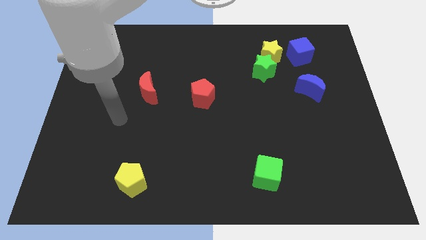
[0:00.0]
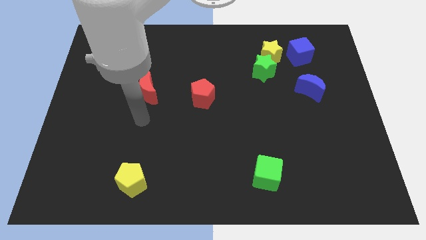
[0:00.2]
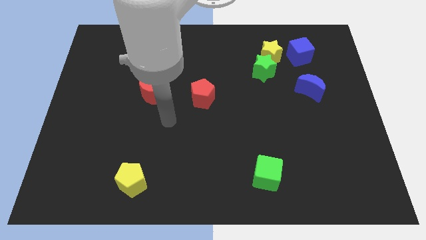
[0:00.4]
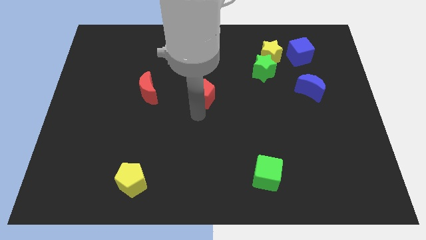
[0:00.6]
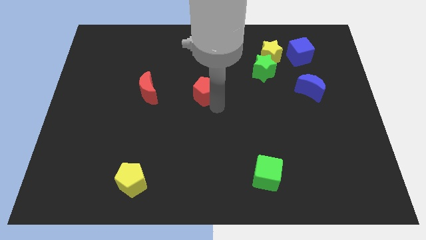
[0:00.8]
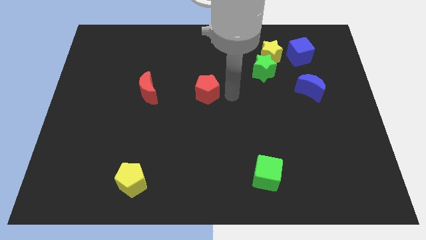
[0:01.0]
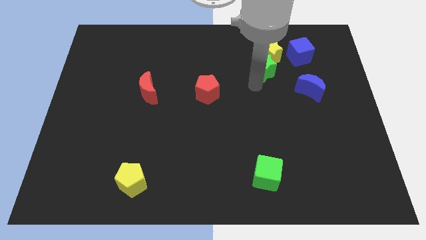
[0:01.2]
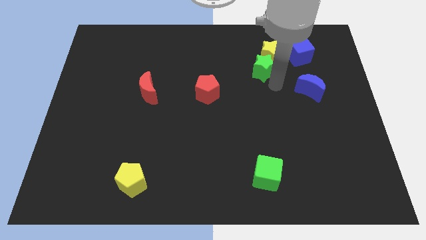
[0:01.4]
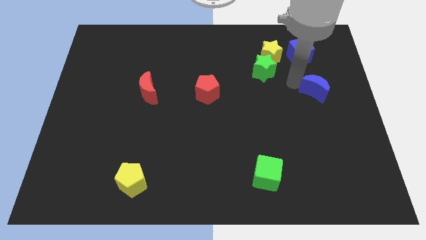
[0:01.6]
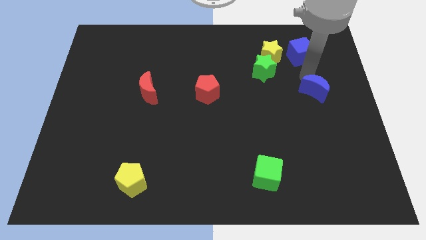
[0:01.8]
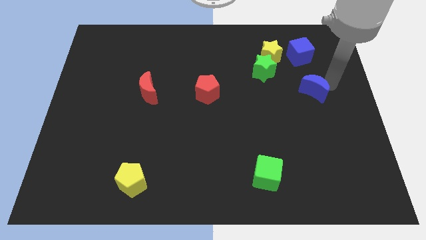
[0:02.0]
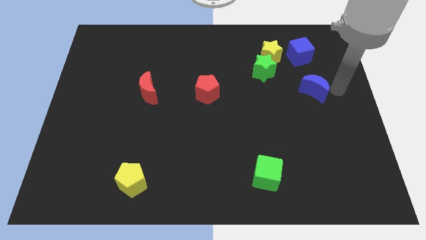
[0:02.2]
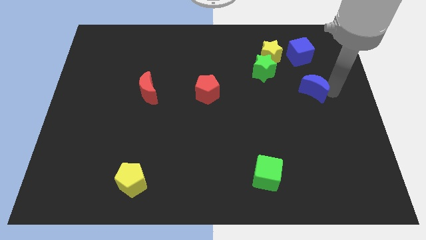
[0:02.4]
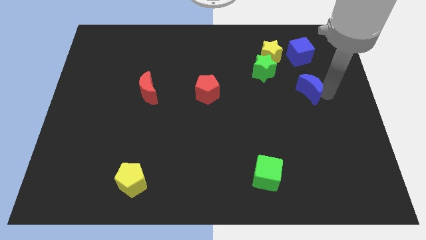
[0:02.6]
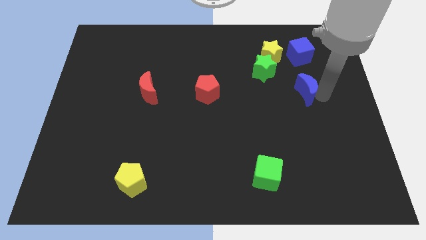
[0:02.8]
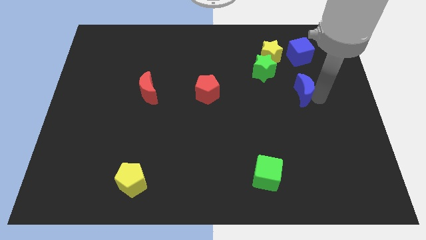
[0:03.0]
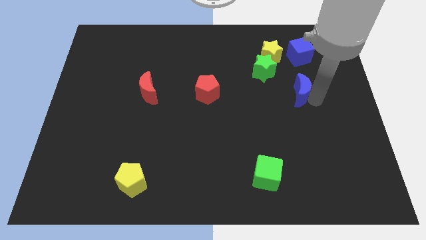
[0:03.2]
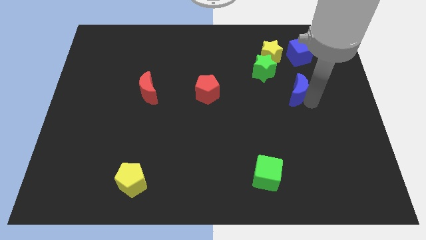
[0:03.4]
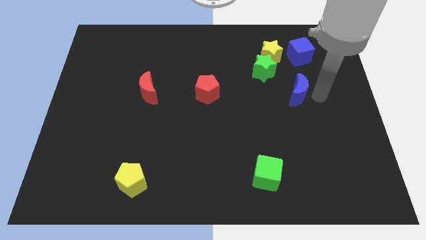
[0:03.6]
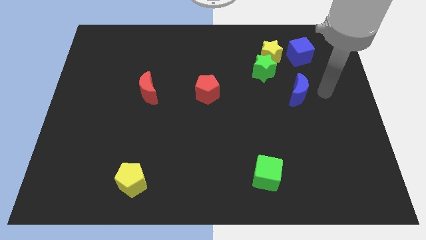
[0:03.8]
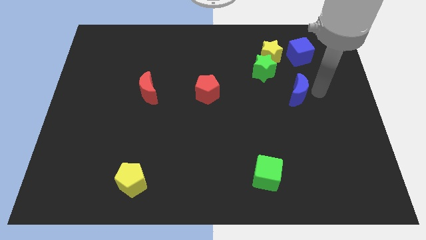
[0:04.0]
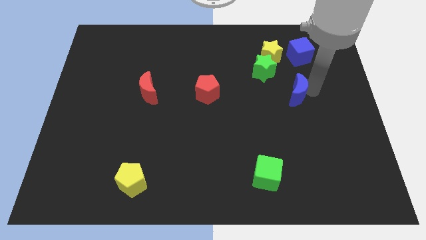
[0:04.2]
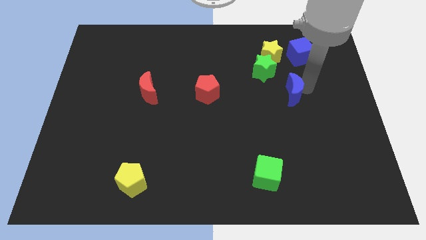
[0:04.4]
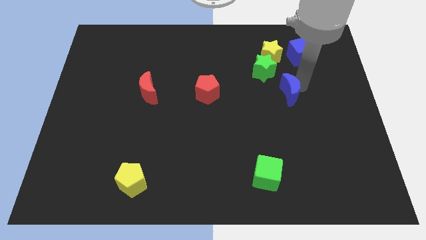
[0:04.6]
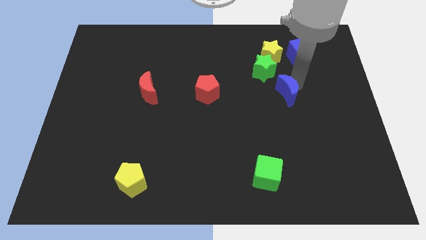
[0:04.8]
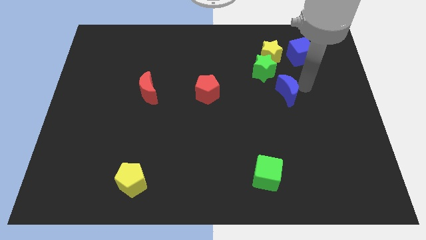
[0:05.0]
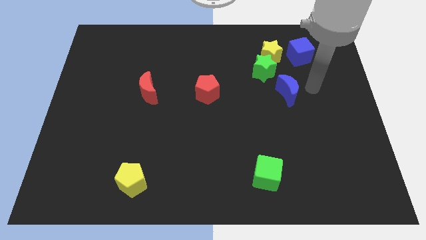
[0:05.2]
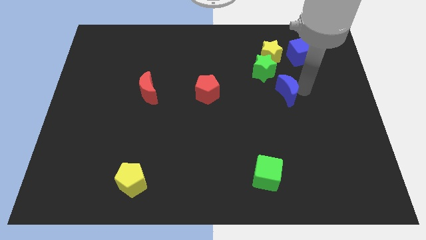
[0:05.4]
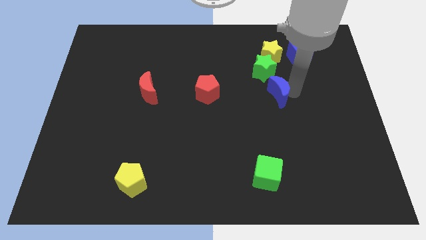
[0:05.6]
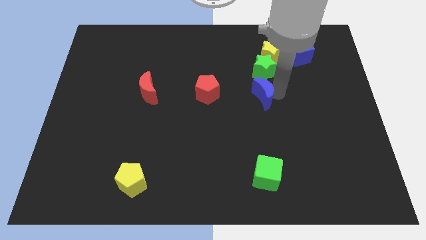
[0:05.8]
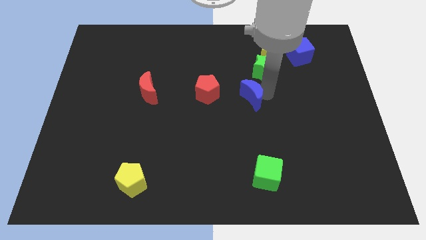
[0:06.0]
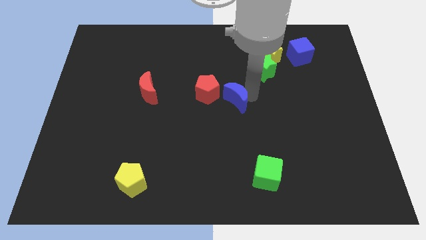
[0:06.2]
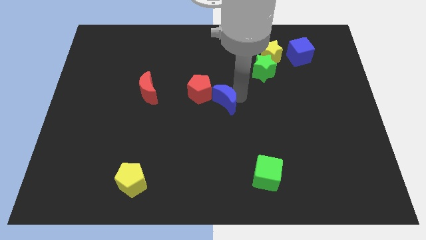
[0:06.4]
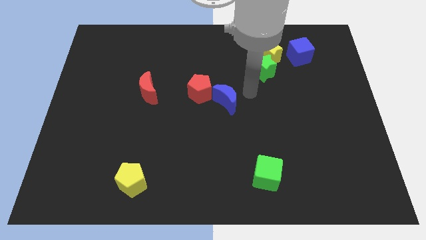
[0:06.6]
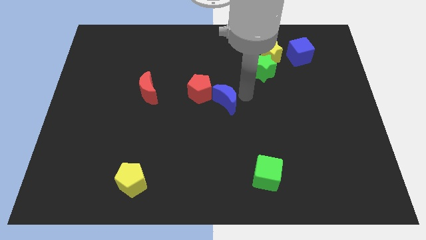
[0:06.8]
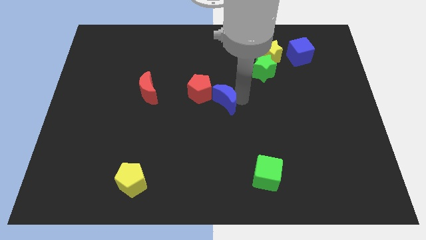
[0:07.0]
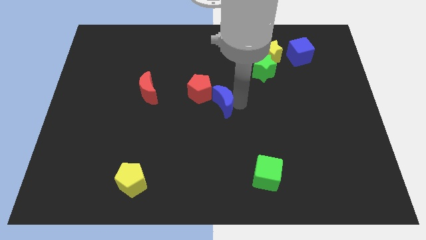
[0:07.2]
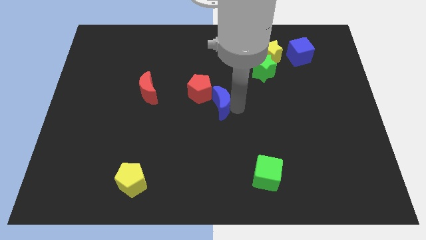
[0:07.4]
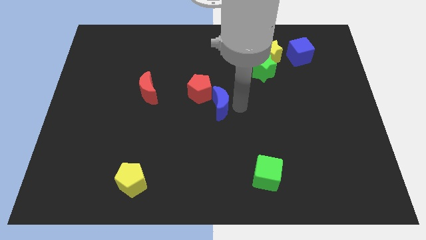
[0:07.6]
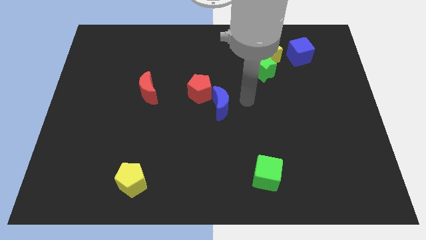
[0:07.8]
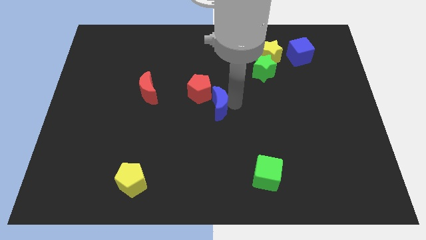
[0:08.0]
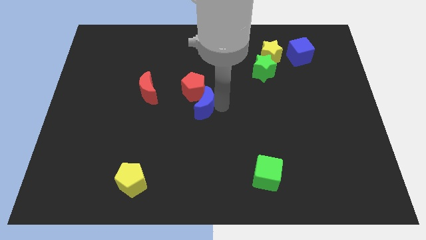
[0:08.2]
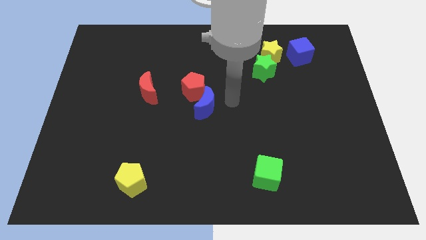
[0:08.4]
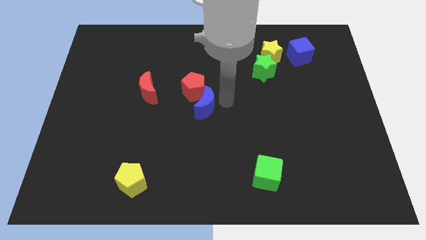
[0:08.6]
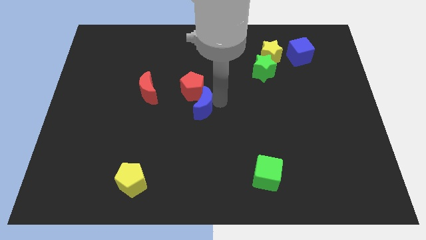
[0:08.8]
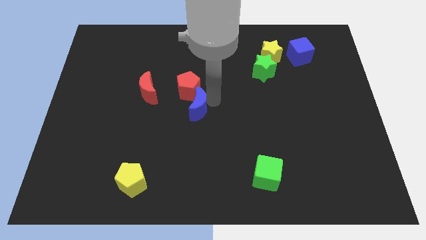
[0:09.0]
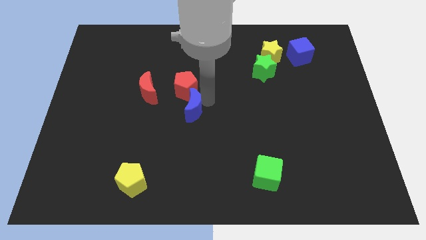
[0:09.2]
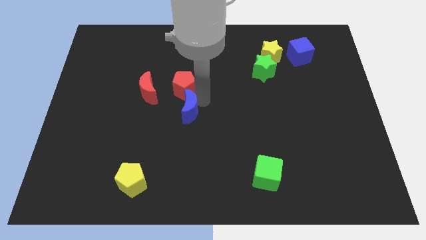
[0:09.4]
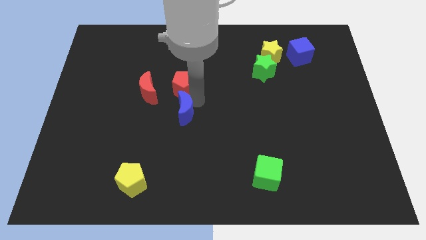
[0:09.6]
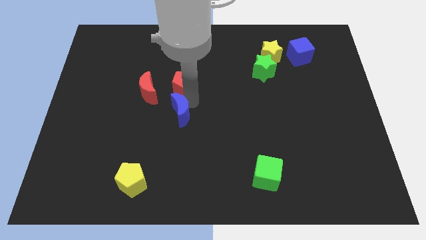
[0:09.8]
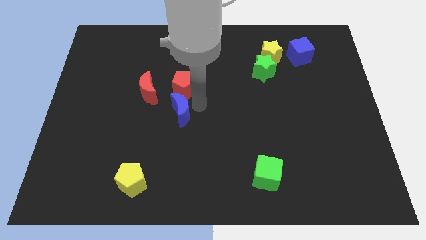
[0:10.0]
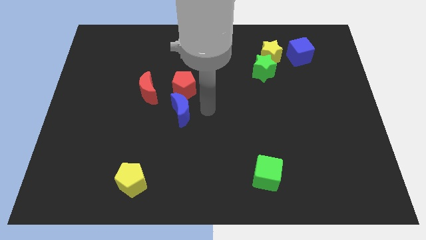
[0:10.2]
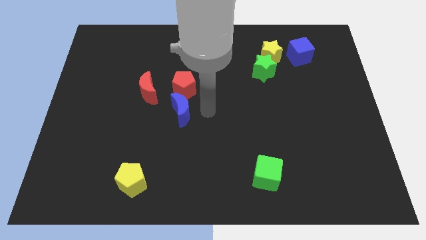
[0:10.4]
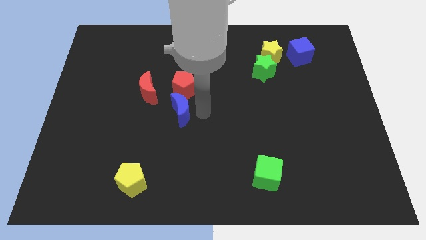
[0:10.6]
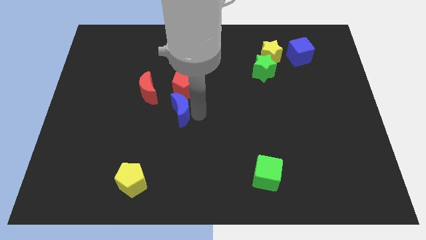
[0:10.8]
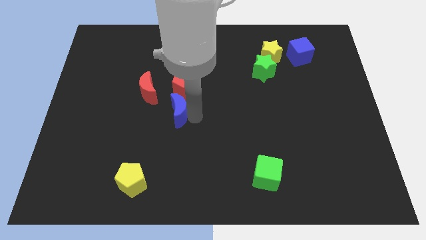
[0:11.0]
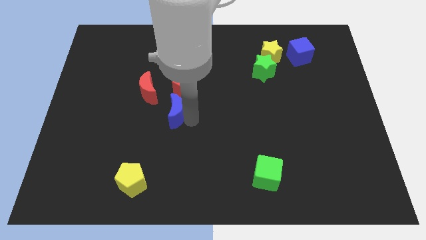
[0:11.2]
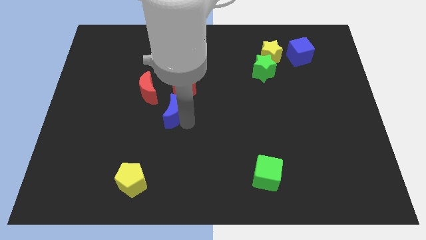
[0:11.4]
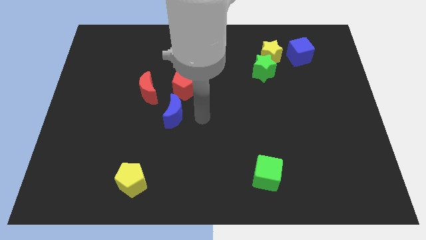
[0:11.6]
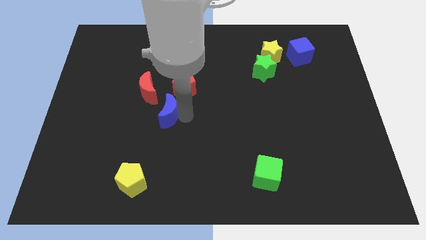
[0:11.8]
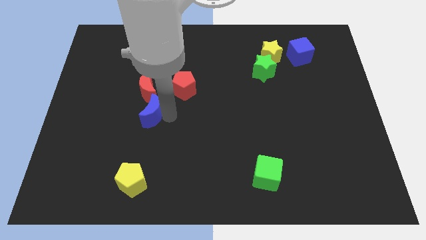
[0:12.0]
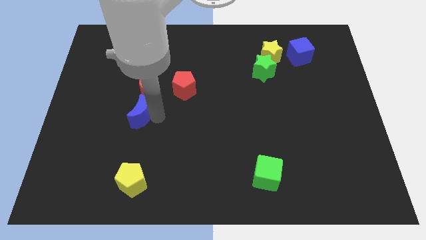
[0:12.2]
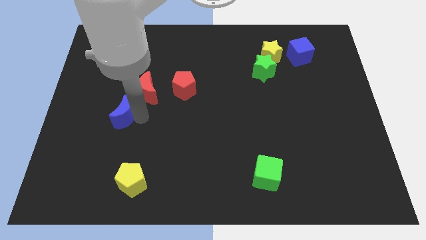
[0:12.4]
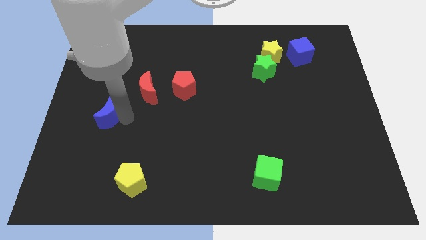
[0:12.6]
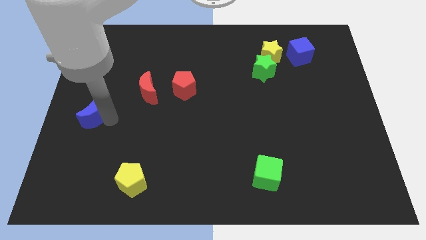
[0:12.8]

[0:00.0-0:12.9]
move the blue moon to the center left

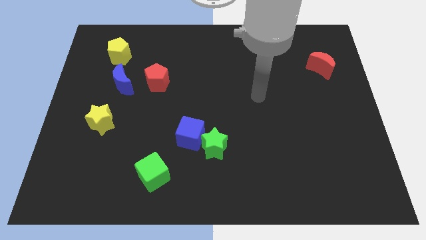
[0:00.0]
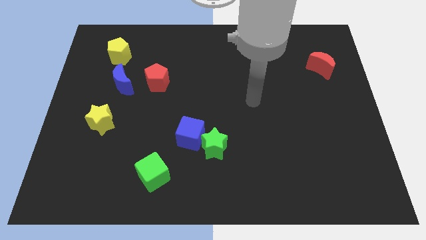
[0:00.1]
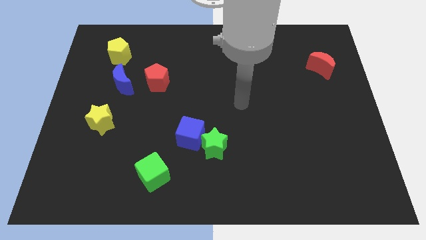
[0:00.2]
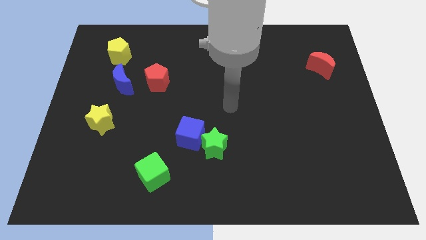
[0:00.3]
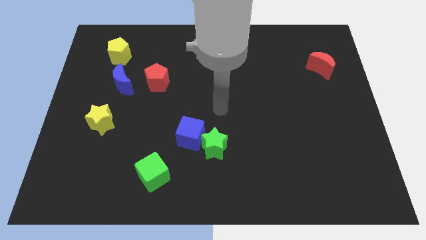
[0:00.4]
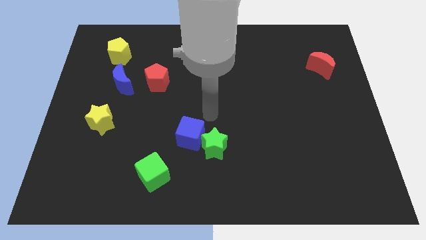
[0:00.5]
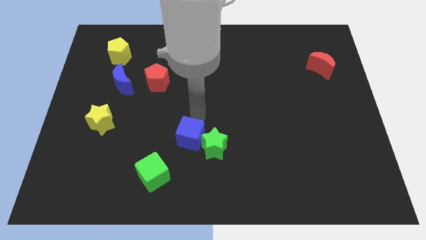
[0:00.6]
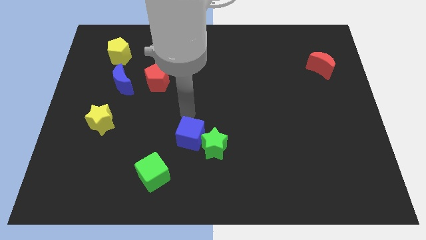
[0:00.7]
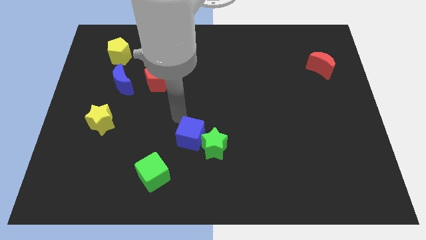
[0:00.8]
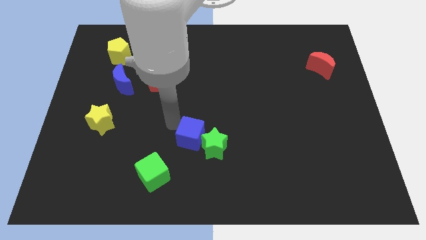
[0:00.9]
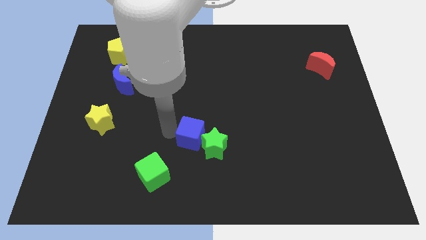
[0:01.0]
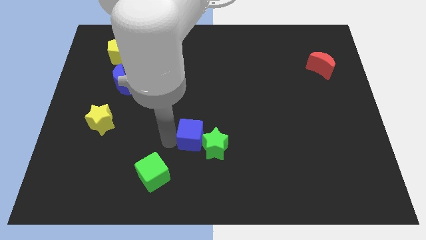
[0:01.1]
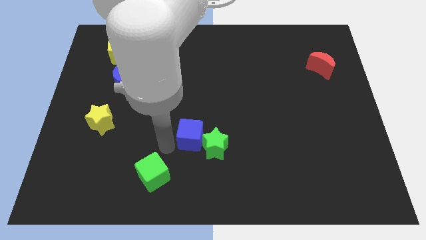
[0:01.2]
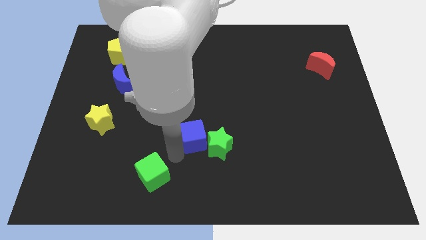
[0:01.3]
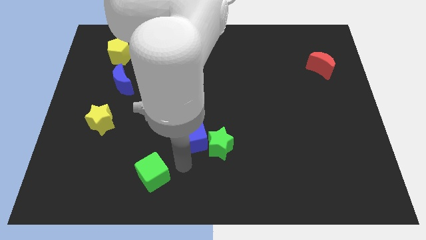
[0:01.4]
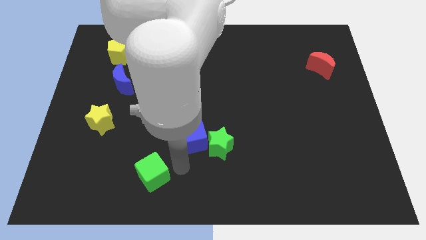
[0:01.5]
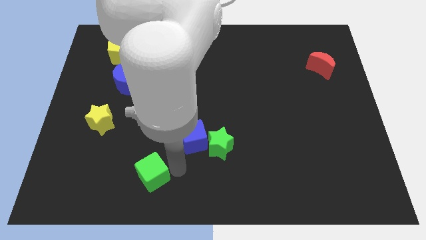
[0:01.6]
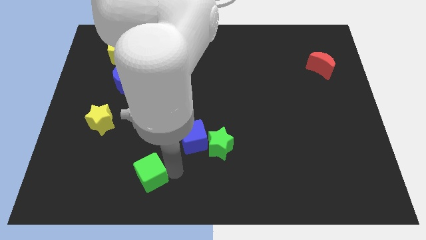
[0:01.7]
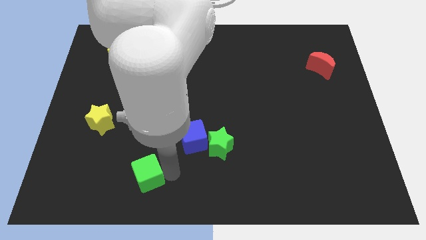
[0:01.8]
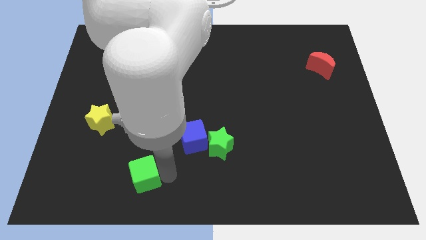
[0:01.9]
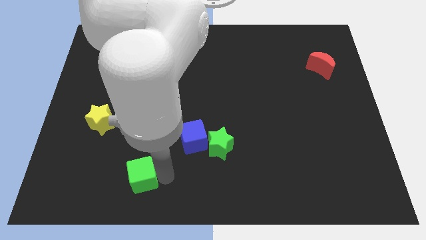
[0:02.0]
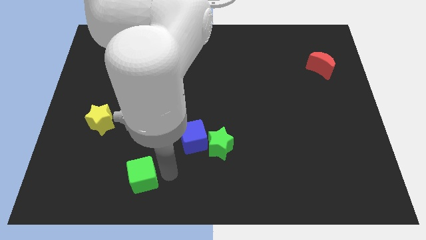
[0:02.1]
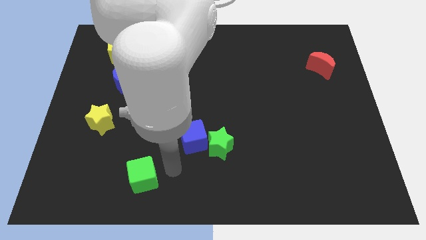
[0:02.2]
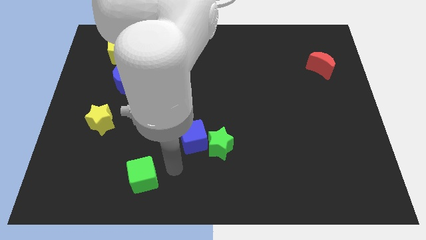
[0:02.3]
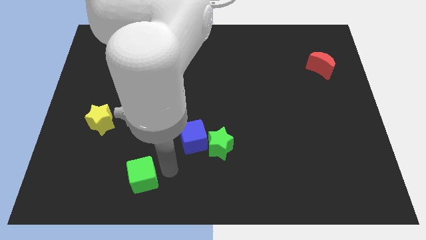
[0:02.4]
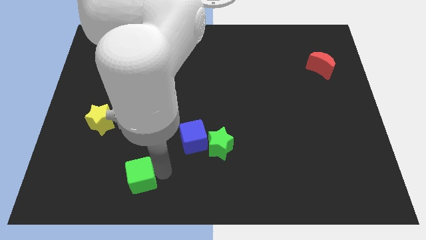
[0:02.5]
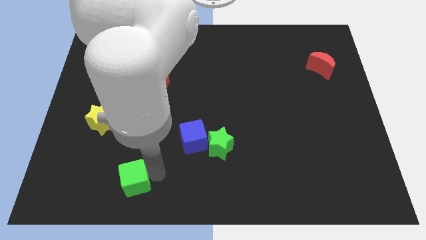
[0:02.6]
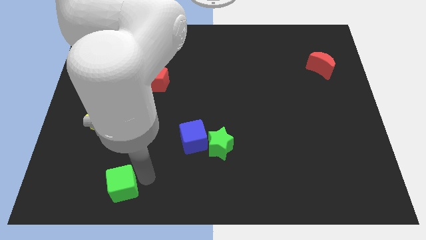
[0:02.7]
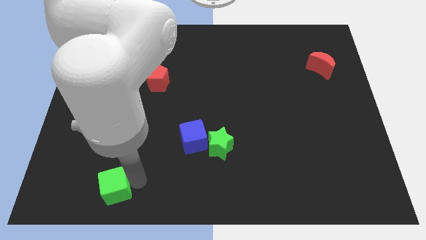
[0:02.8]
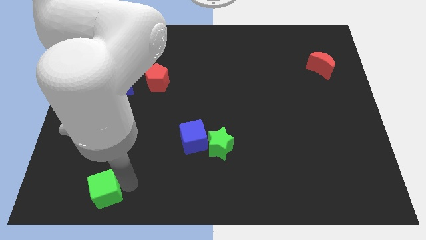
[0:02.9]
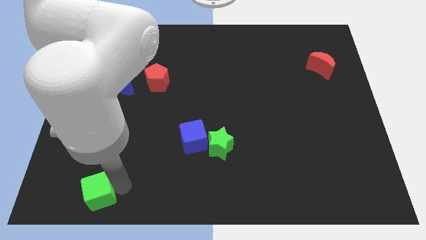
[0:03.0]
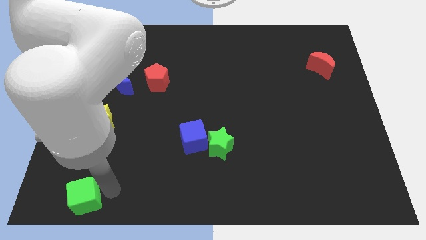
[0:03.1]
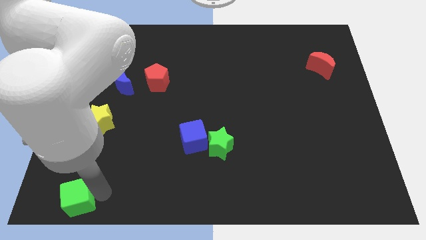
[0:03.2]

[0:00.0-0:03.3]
move the green cube to the bottom left
